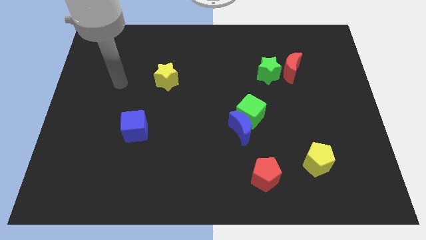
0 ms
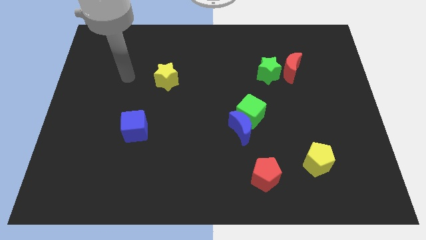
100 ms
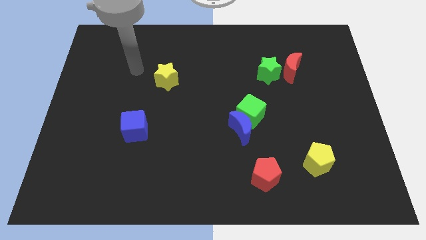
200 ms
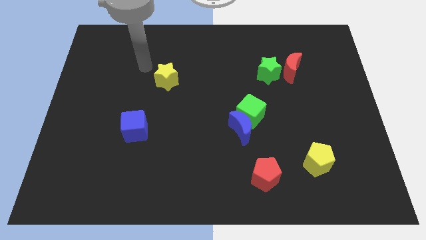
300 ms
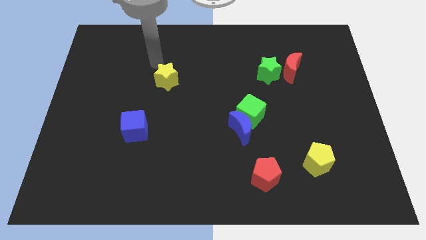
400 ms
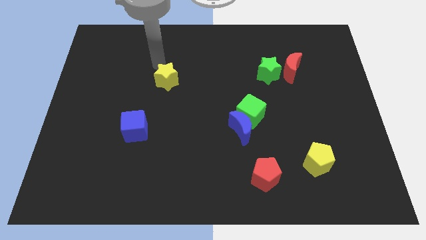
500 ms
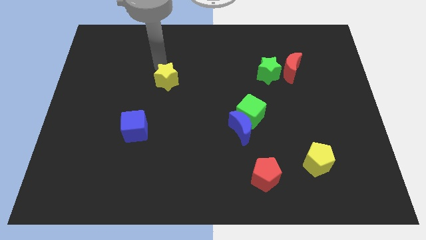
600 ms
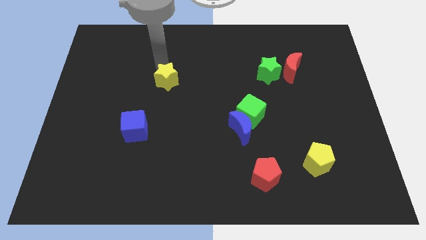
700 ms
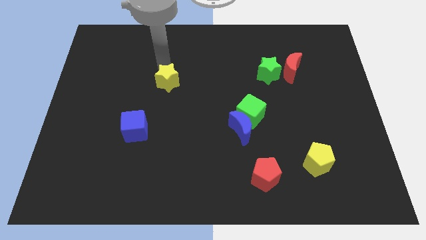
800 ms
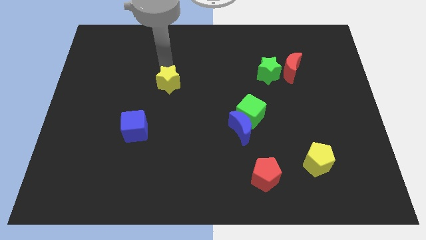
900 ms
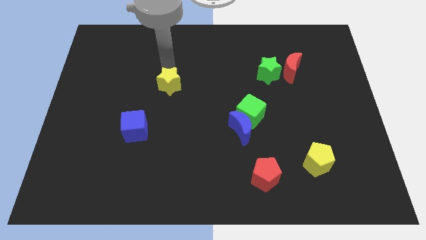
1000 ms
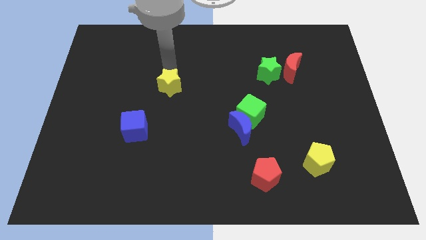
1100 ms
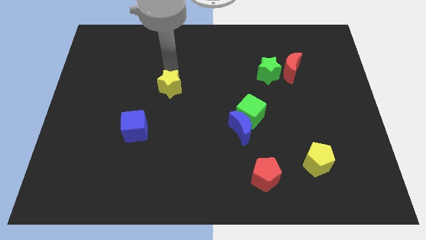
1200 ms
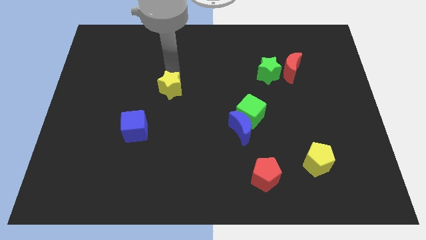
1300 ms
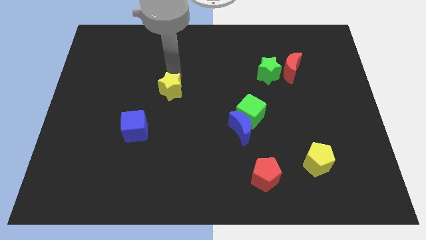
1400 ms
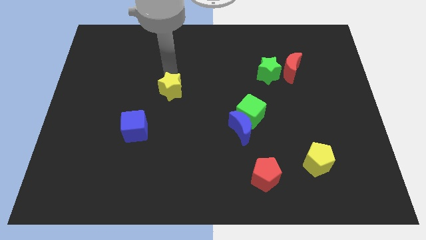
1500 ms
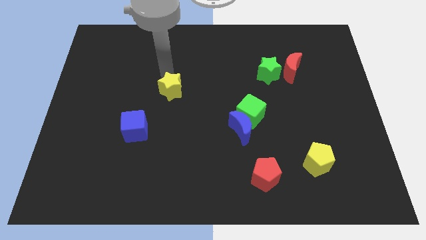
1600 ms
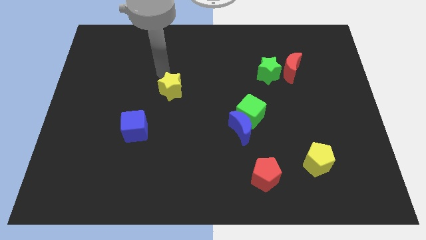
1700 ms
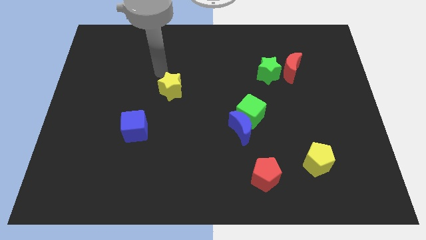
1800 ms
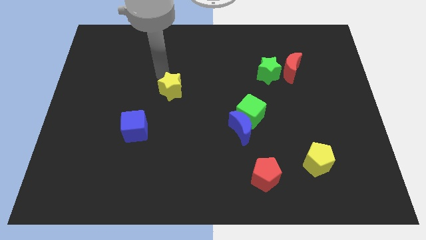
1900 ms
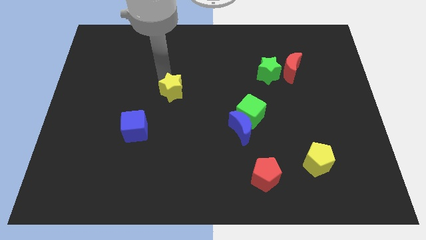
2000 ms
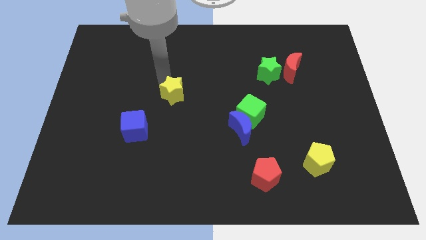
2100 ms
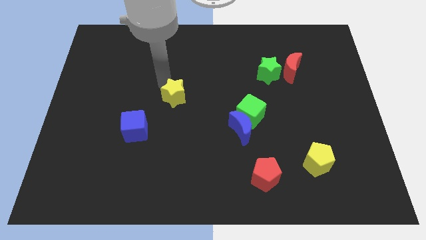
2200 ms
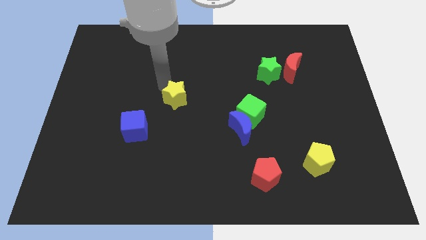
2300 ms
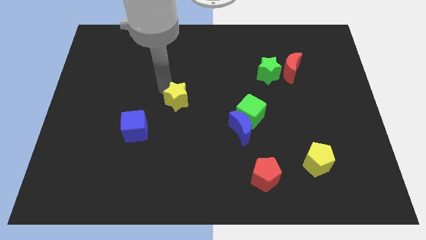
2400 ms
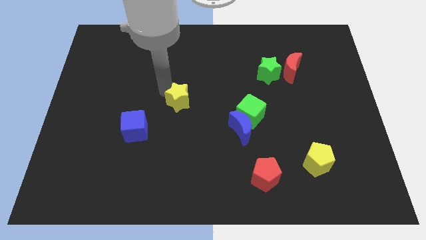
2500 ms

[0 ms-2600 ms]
slide the yellow star a little down and then to the right

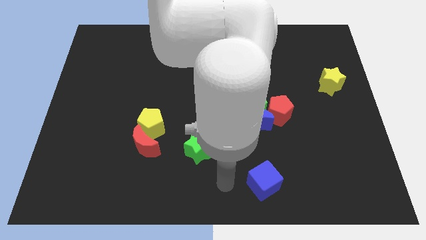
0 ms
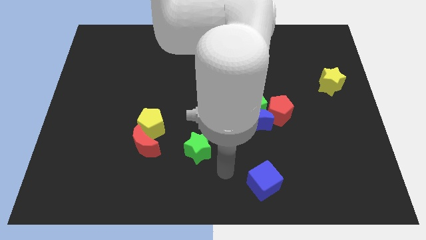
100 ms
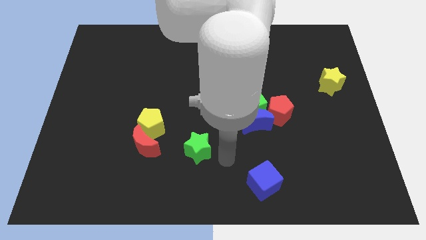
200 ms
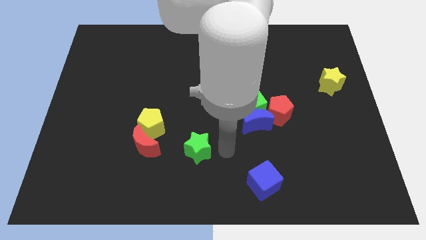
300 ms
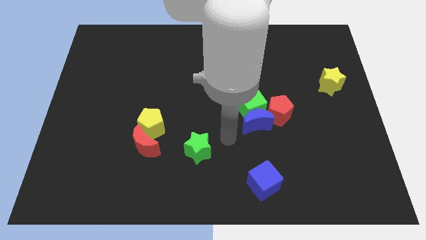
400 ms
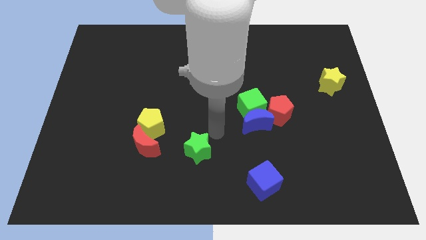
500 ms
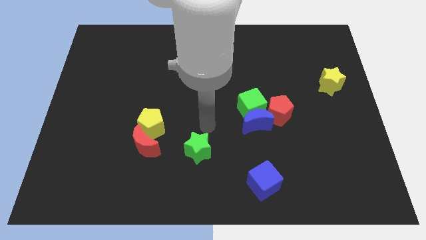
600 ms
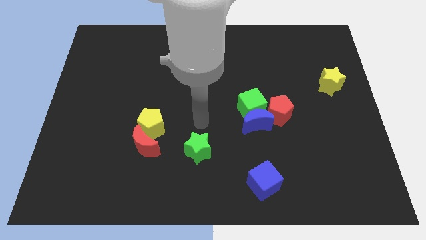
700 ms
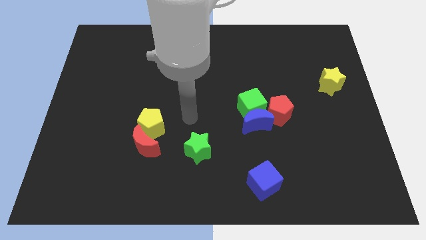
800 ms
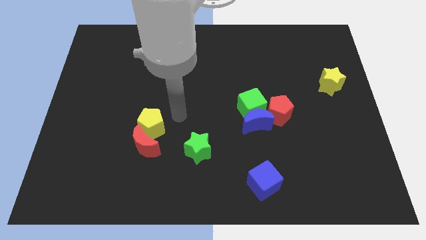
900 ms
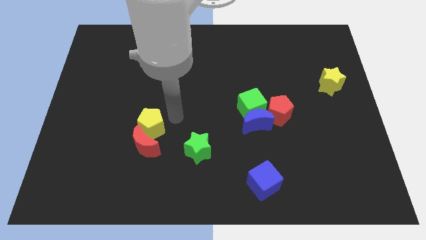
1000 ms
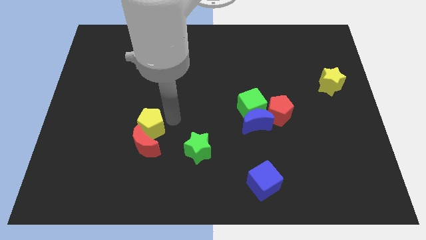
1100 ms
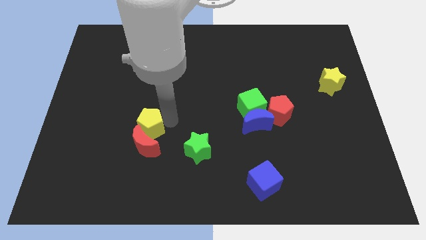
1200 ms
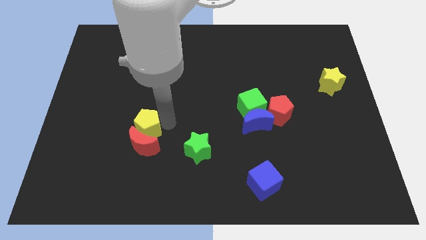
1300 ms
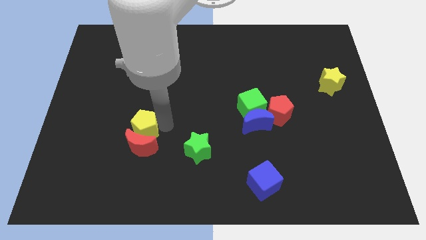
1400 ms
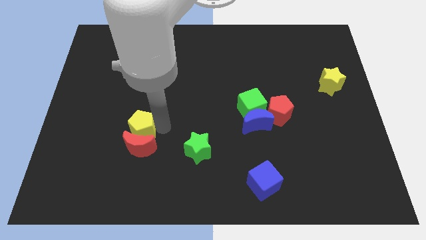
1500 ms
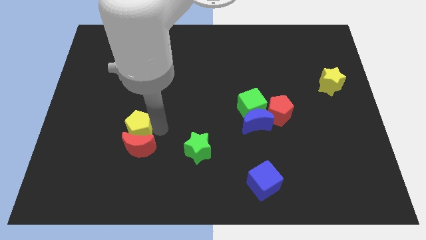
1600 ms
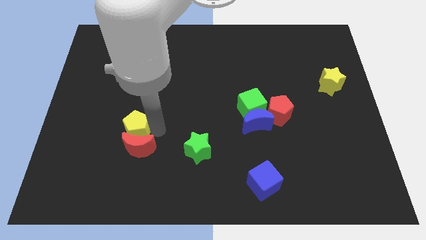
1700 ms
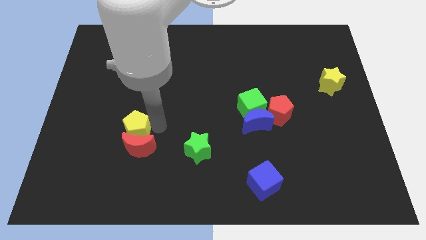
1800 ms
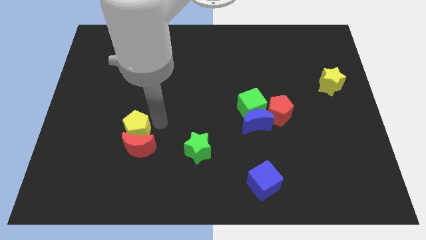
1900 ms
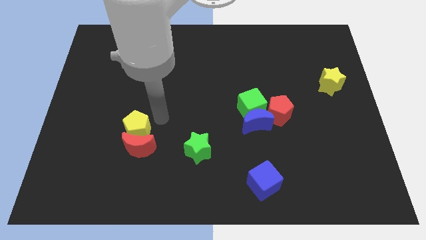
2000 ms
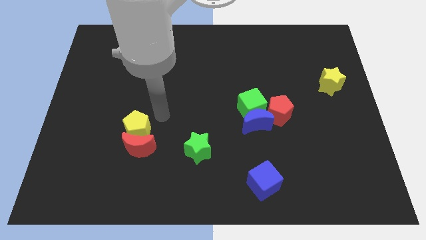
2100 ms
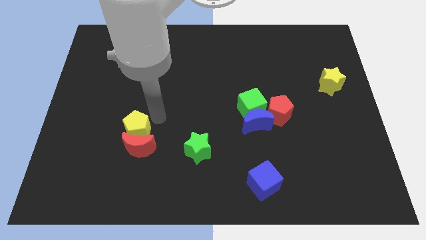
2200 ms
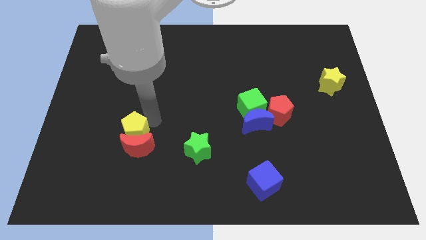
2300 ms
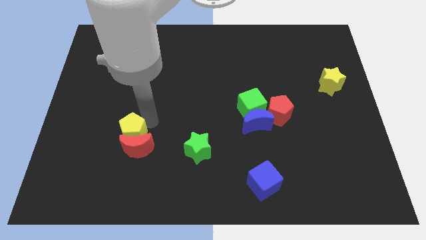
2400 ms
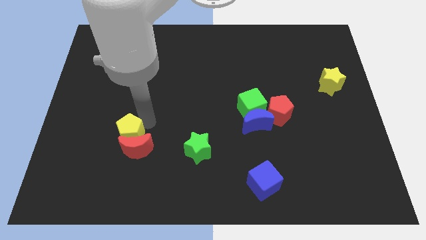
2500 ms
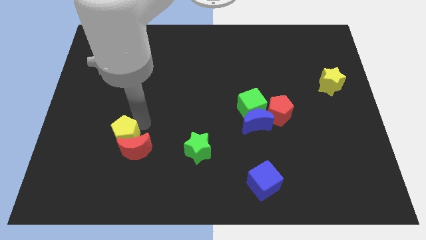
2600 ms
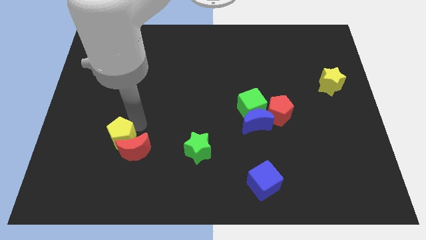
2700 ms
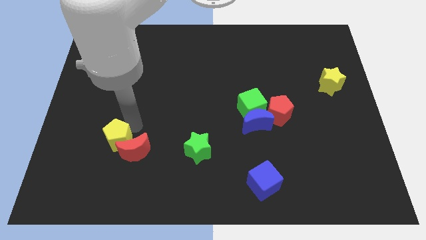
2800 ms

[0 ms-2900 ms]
push the yellow pentagon down and then to the left a bit

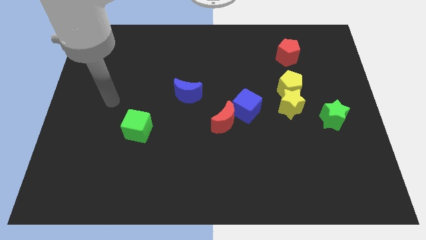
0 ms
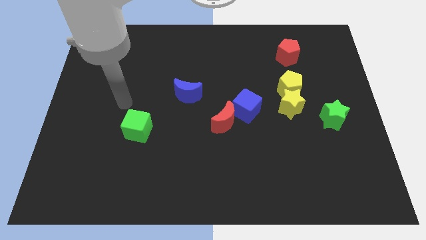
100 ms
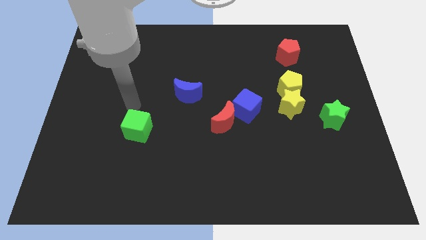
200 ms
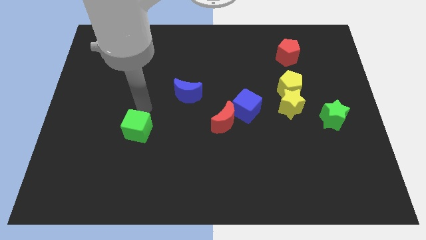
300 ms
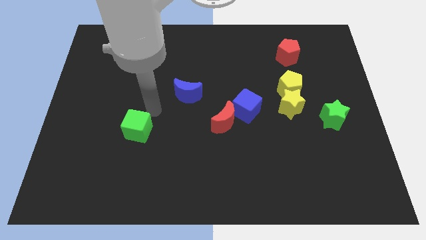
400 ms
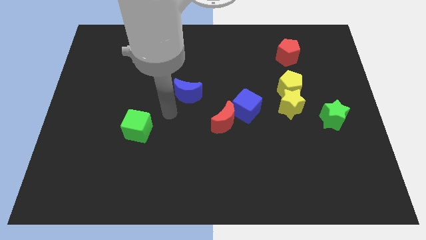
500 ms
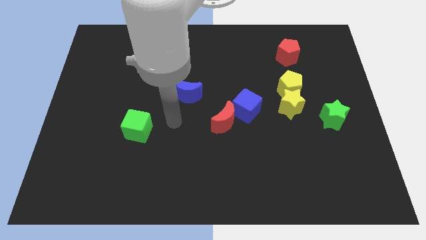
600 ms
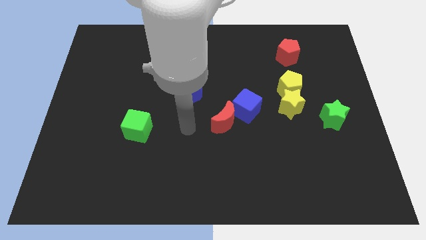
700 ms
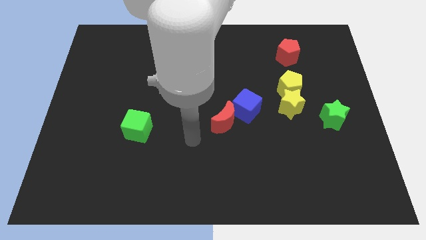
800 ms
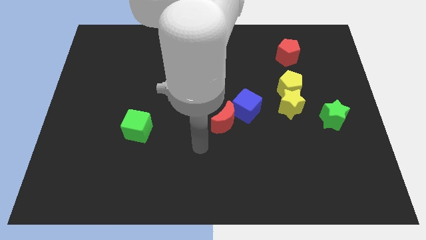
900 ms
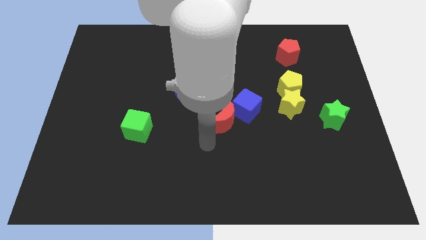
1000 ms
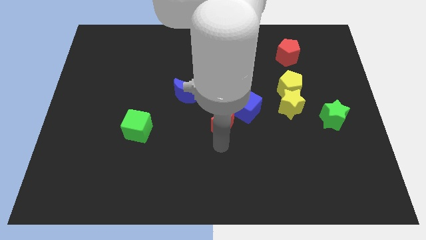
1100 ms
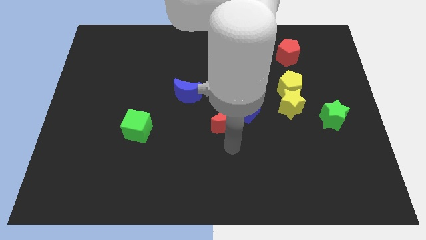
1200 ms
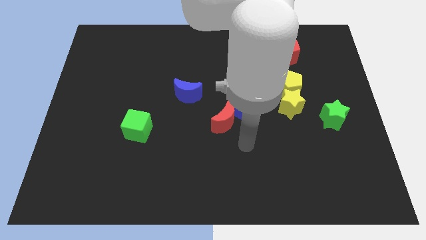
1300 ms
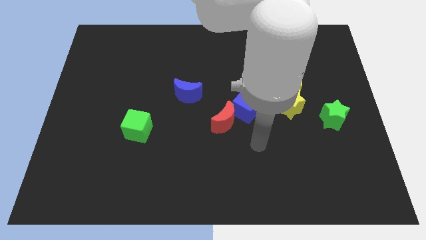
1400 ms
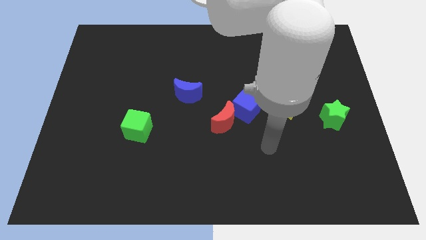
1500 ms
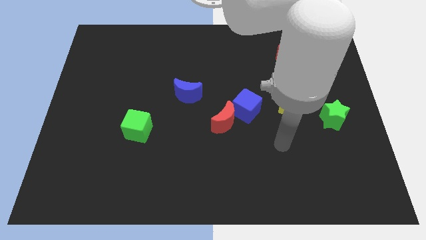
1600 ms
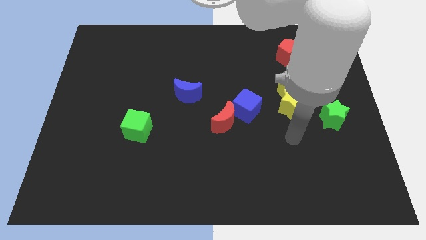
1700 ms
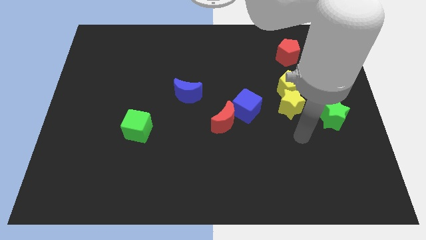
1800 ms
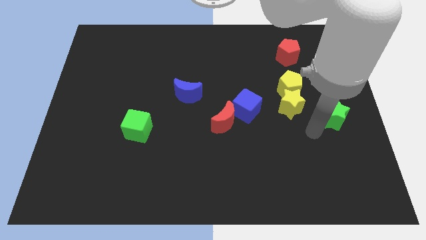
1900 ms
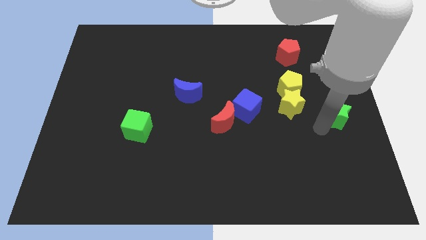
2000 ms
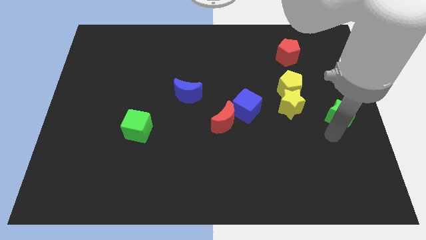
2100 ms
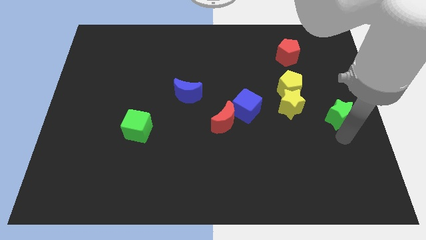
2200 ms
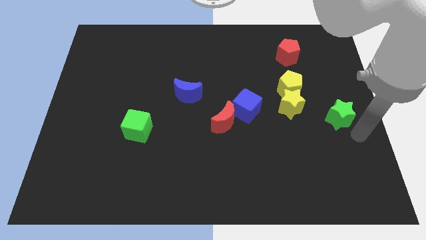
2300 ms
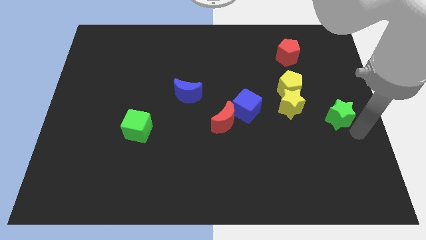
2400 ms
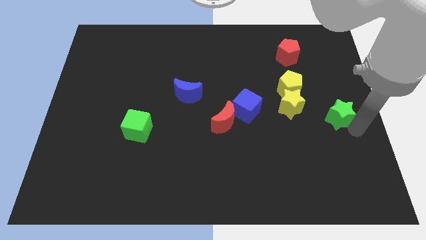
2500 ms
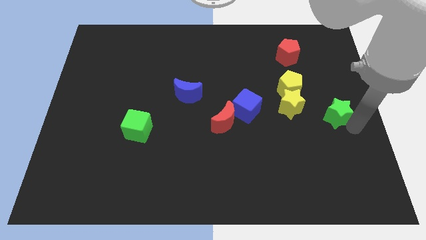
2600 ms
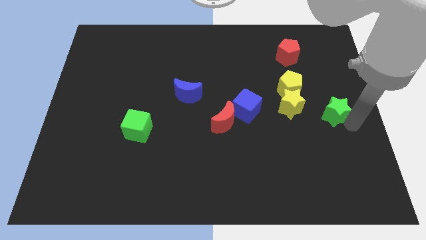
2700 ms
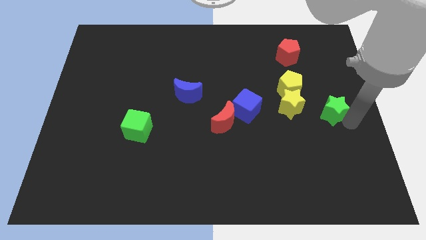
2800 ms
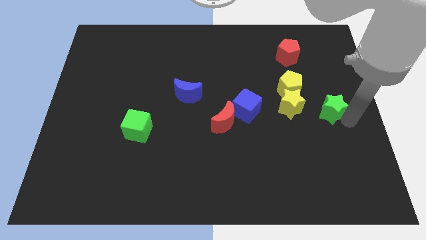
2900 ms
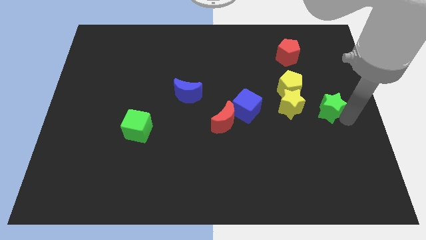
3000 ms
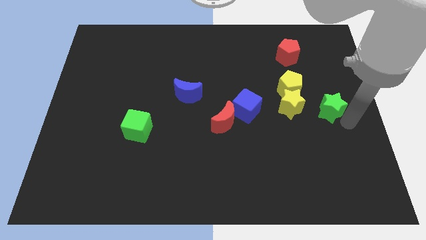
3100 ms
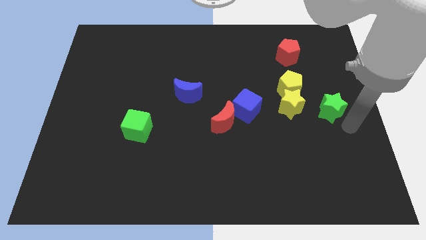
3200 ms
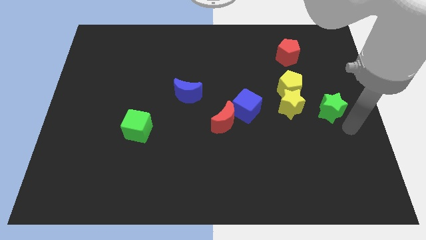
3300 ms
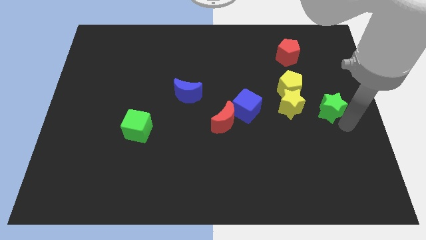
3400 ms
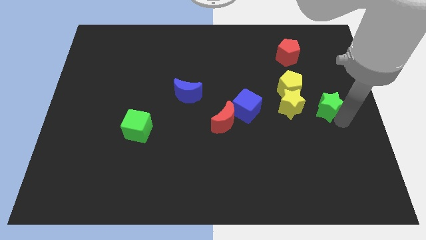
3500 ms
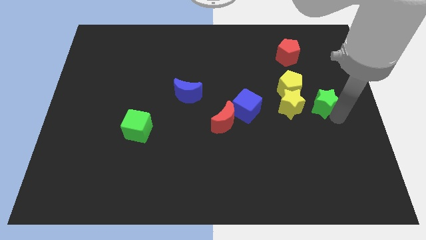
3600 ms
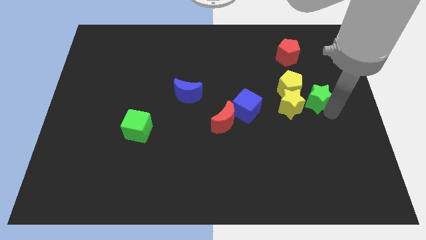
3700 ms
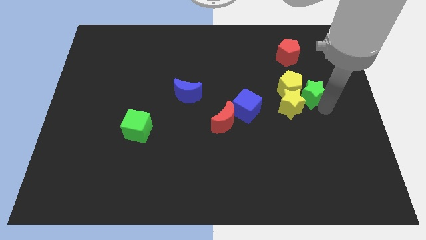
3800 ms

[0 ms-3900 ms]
slightly move the green star diagonally upwards and left
